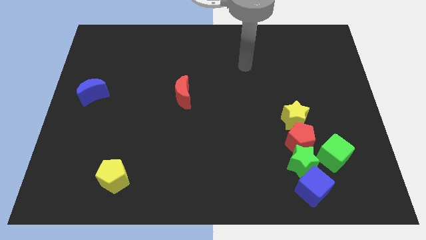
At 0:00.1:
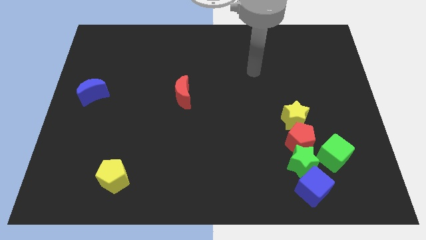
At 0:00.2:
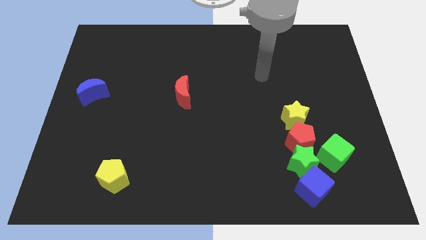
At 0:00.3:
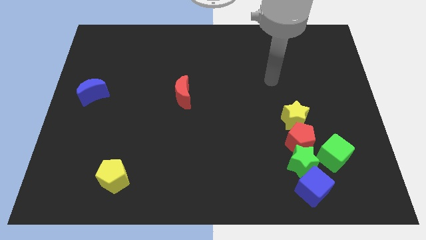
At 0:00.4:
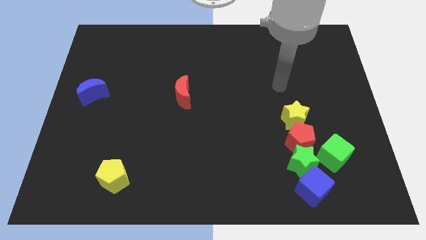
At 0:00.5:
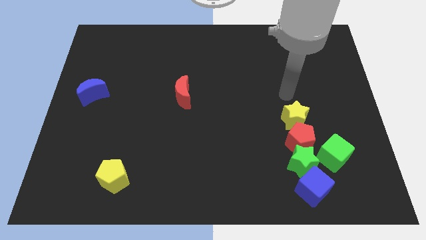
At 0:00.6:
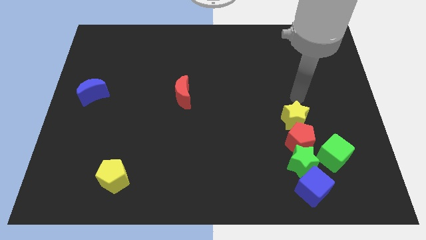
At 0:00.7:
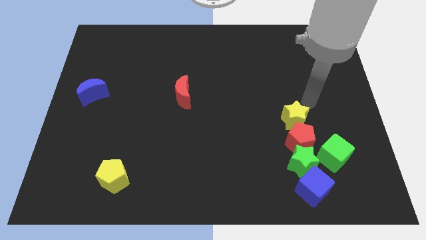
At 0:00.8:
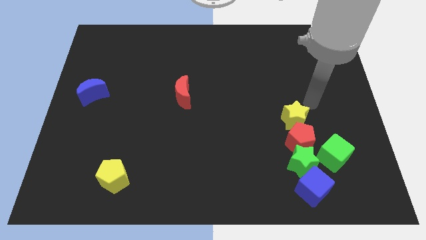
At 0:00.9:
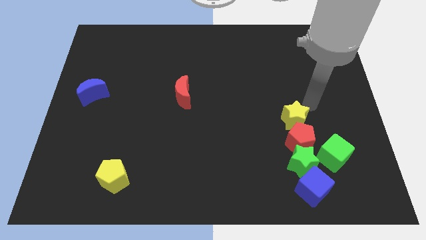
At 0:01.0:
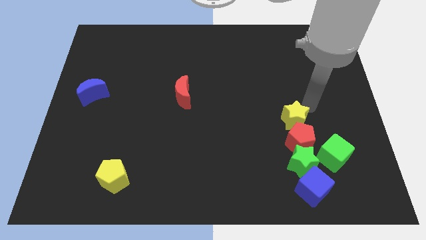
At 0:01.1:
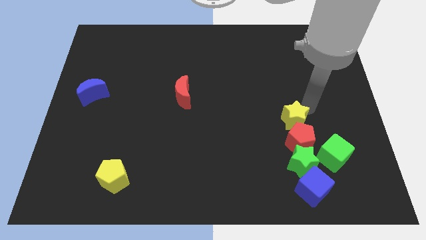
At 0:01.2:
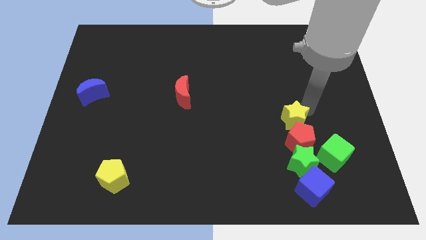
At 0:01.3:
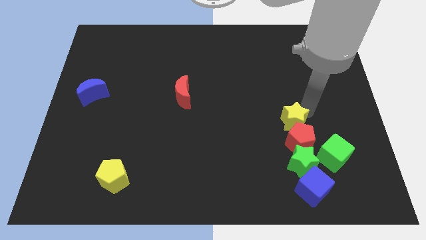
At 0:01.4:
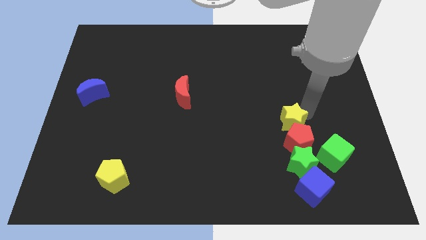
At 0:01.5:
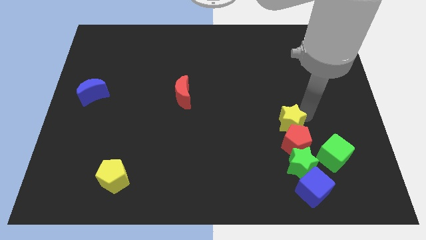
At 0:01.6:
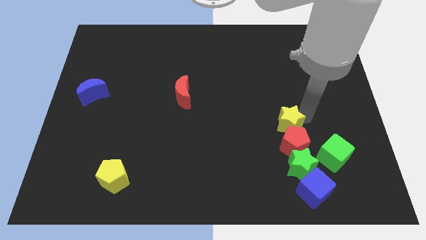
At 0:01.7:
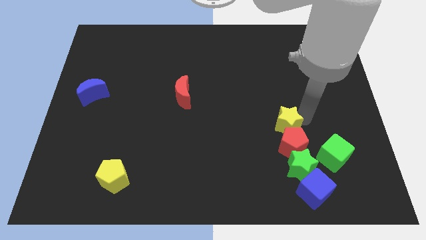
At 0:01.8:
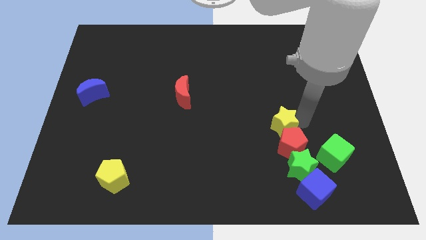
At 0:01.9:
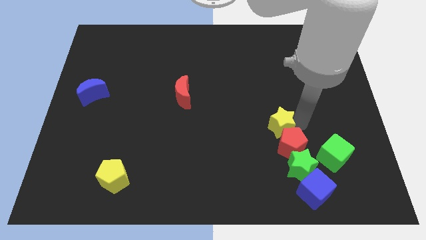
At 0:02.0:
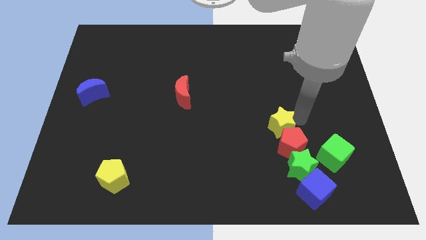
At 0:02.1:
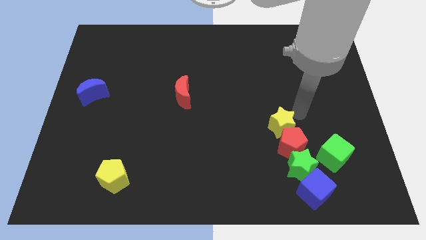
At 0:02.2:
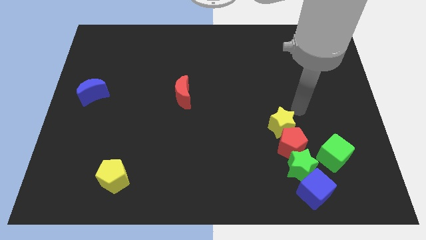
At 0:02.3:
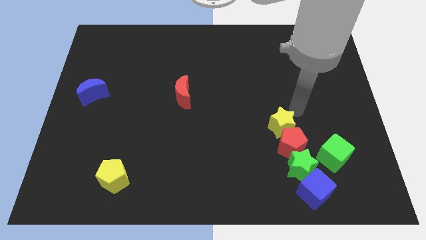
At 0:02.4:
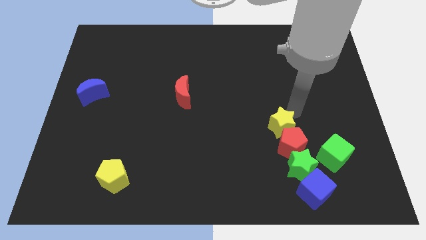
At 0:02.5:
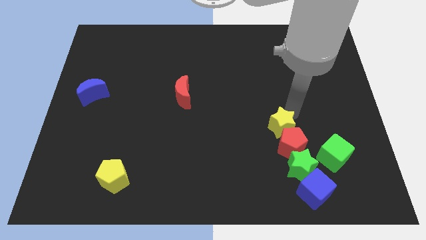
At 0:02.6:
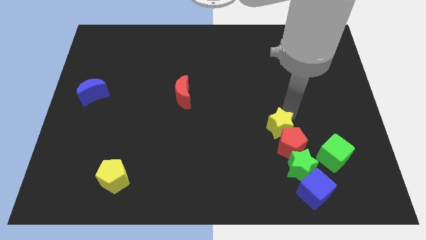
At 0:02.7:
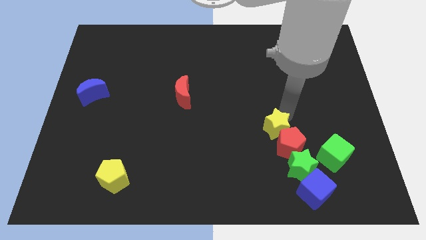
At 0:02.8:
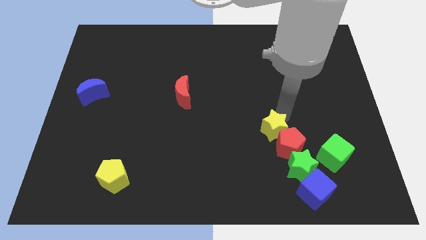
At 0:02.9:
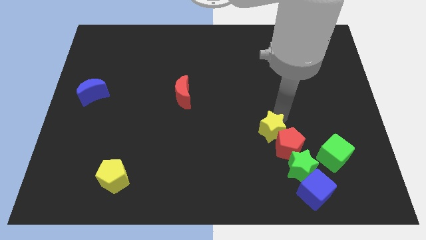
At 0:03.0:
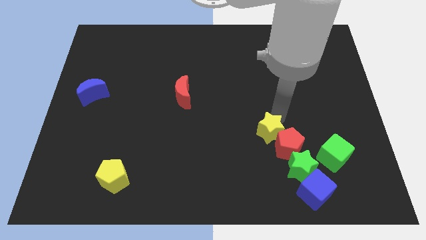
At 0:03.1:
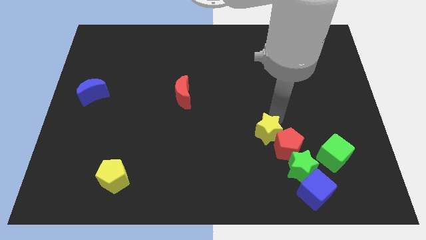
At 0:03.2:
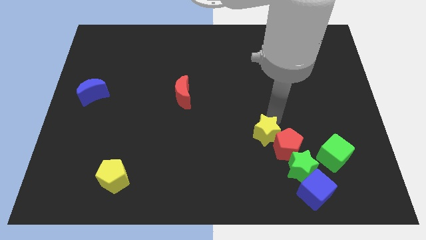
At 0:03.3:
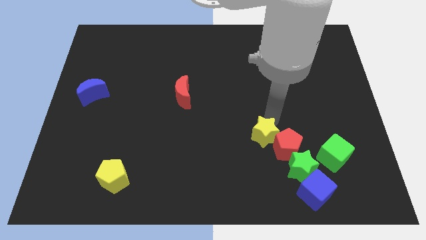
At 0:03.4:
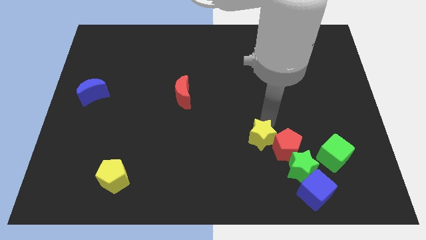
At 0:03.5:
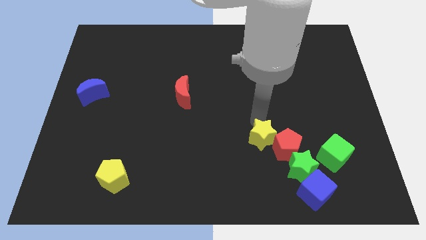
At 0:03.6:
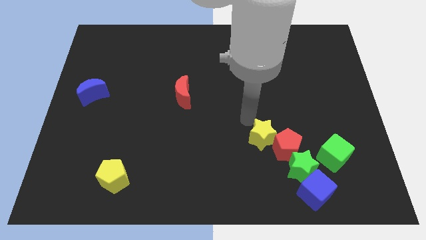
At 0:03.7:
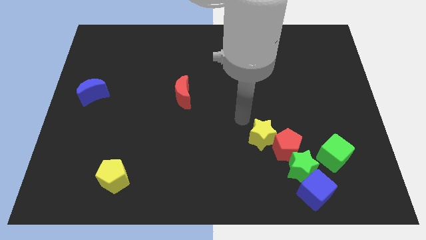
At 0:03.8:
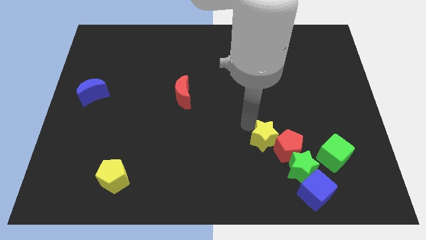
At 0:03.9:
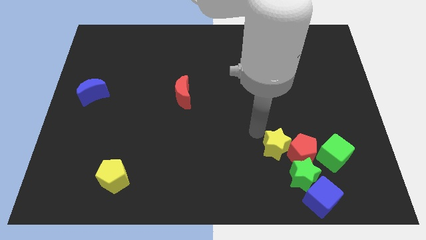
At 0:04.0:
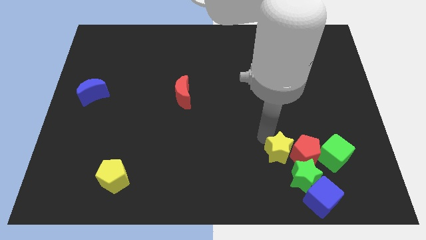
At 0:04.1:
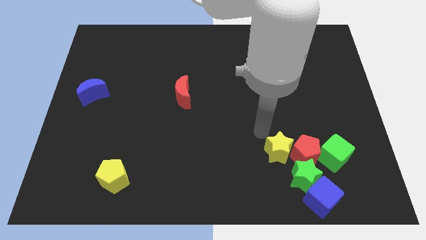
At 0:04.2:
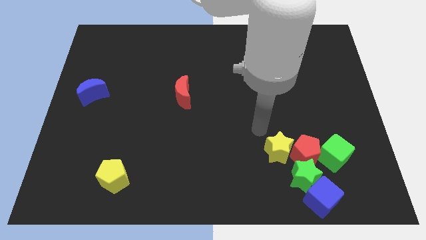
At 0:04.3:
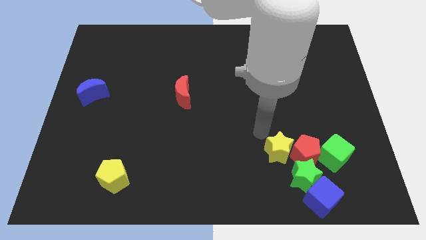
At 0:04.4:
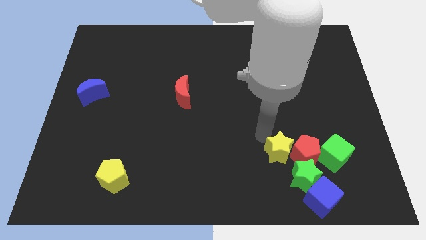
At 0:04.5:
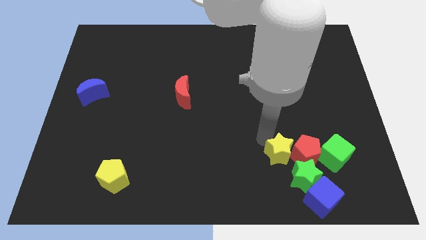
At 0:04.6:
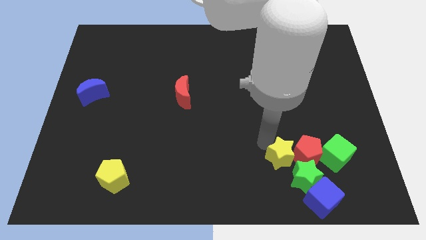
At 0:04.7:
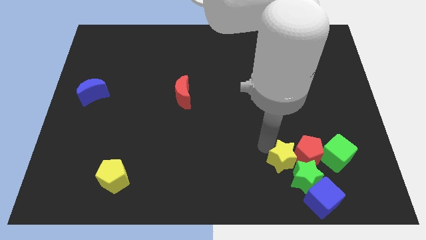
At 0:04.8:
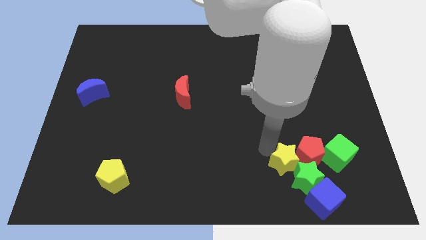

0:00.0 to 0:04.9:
put the yellow star towards the green star

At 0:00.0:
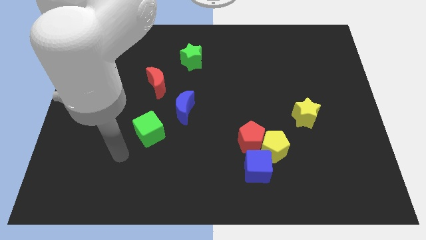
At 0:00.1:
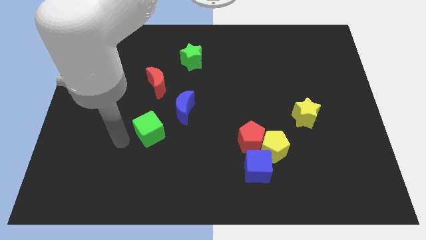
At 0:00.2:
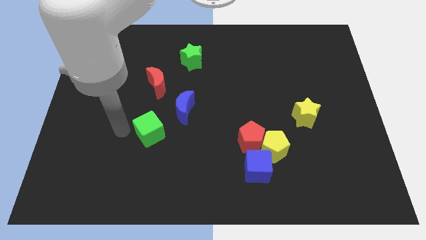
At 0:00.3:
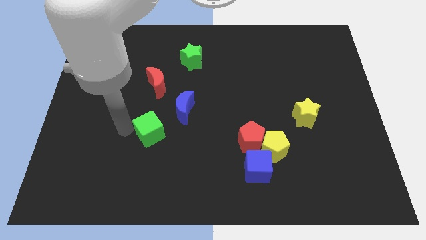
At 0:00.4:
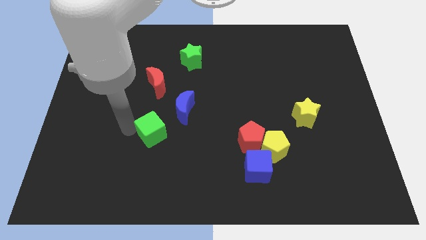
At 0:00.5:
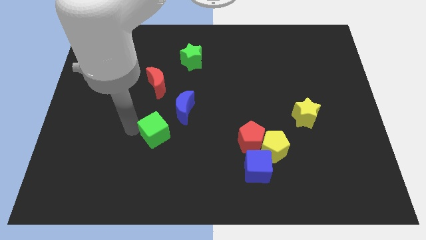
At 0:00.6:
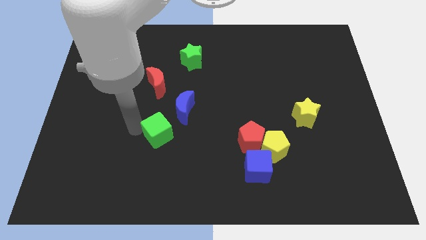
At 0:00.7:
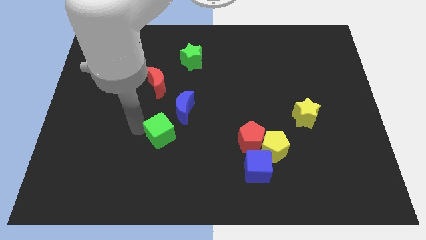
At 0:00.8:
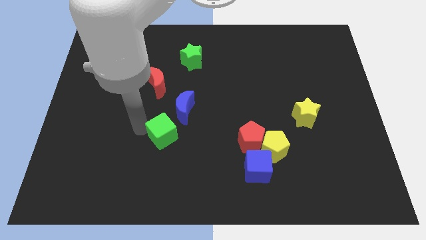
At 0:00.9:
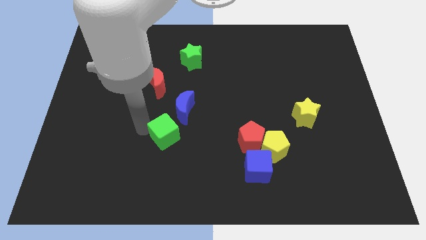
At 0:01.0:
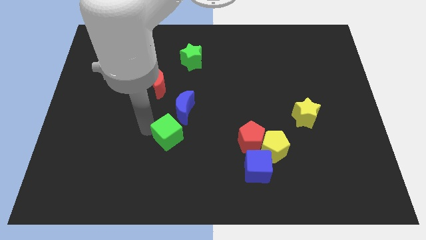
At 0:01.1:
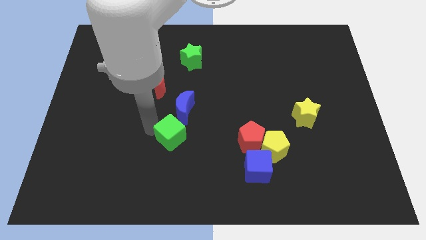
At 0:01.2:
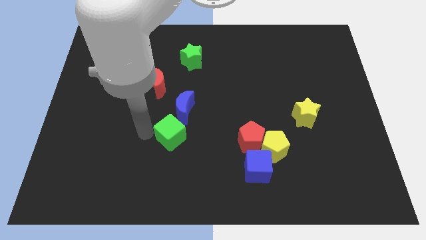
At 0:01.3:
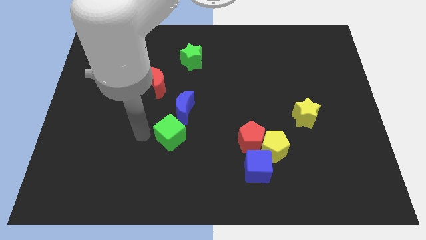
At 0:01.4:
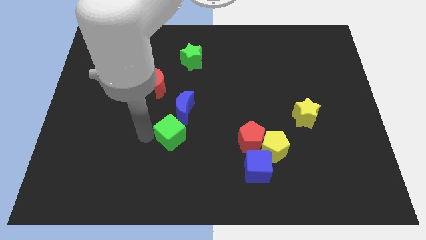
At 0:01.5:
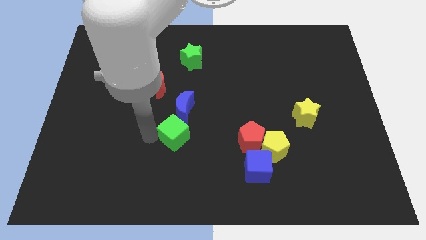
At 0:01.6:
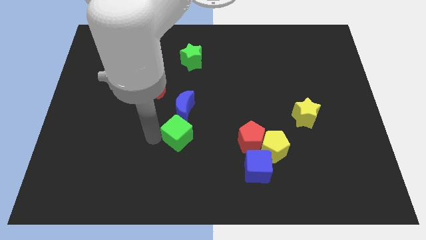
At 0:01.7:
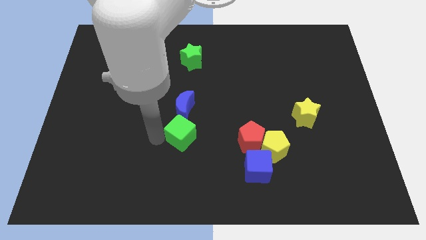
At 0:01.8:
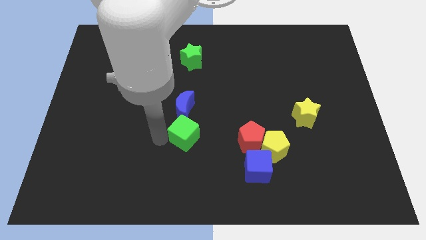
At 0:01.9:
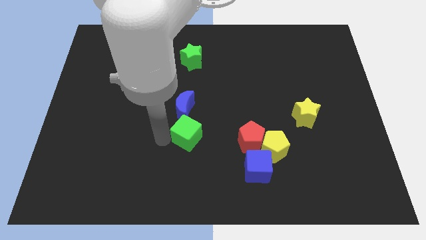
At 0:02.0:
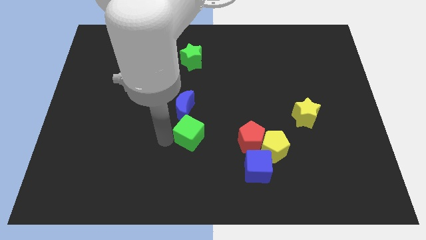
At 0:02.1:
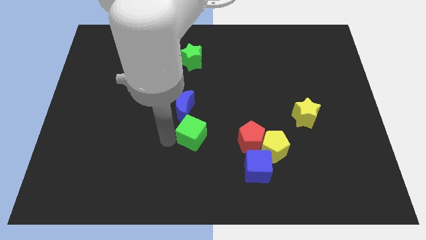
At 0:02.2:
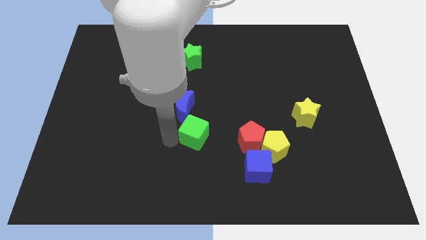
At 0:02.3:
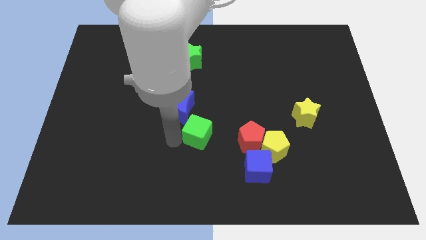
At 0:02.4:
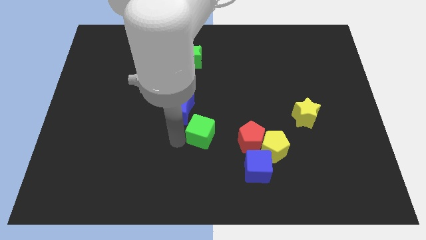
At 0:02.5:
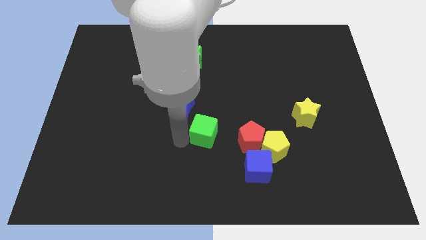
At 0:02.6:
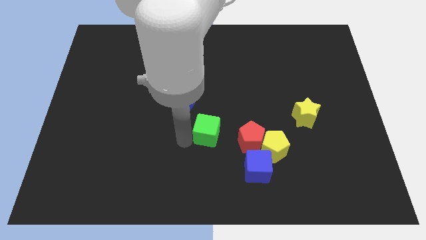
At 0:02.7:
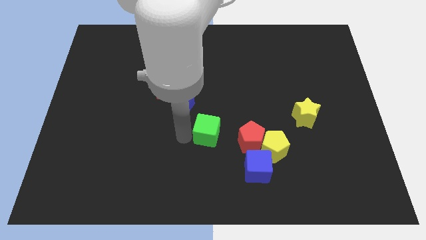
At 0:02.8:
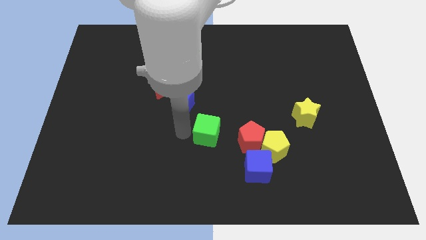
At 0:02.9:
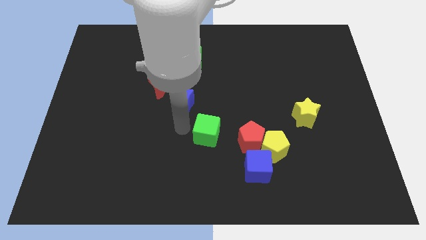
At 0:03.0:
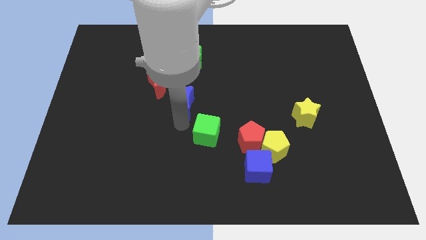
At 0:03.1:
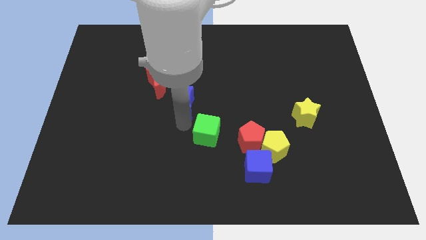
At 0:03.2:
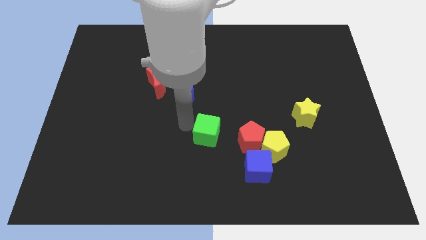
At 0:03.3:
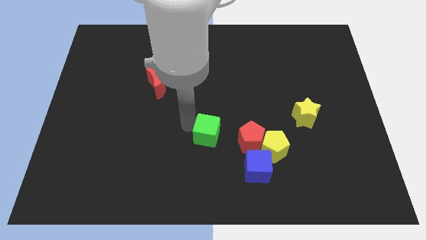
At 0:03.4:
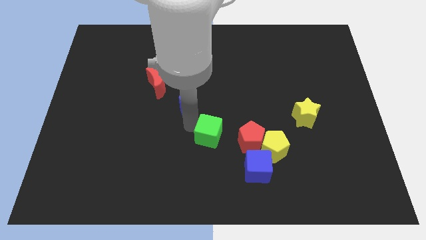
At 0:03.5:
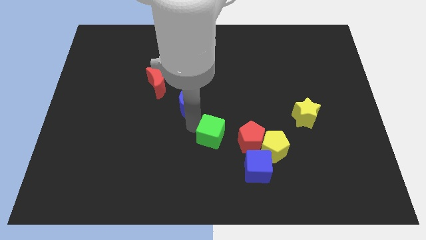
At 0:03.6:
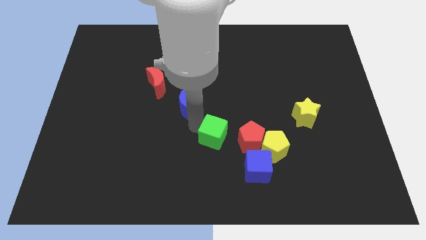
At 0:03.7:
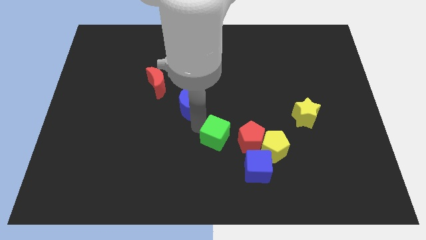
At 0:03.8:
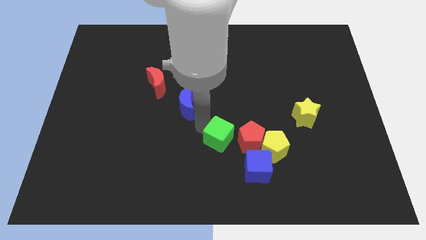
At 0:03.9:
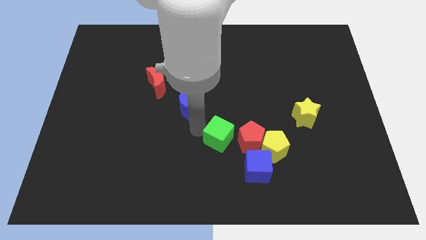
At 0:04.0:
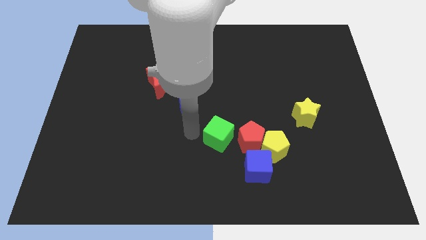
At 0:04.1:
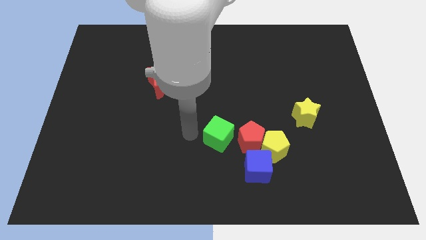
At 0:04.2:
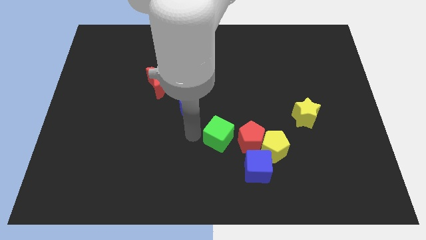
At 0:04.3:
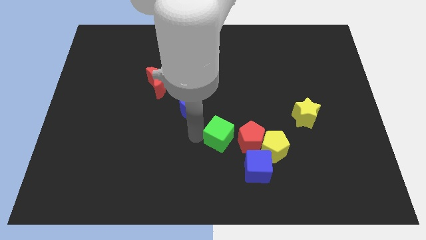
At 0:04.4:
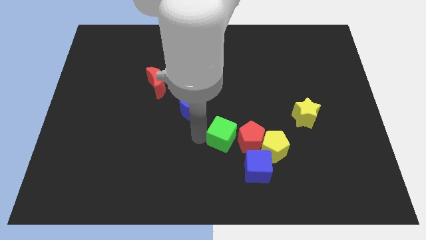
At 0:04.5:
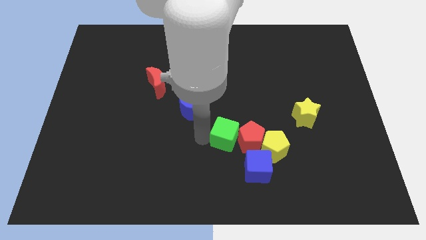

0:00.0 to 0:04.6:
put the green cube next to the red pentagon
